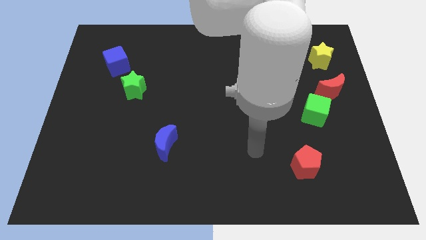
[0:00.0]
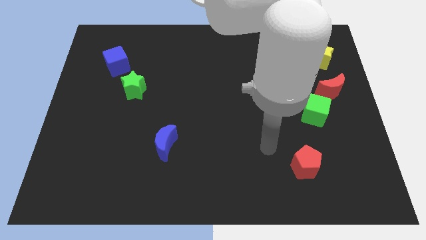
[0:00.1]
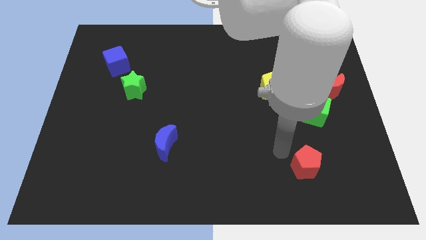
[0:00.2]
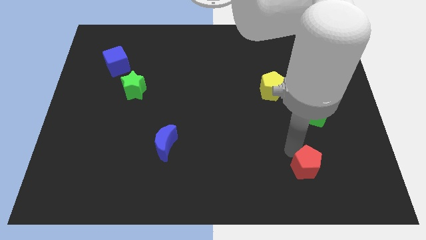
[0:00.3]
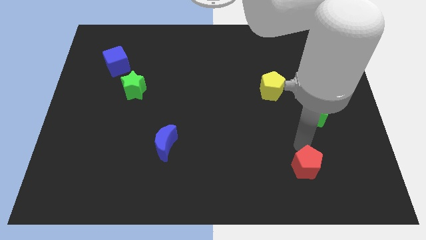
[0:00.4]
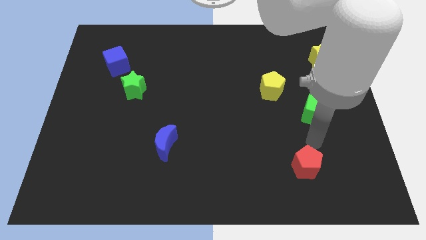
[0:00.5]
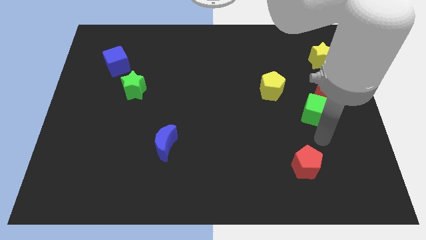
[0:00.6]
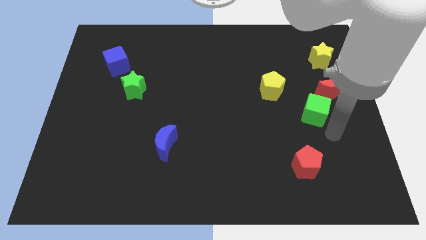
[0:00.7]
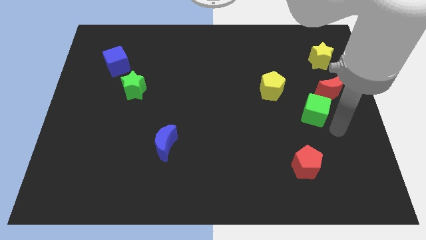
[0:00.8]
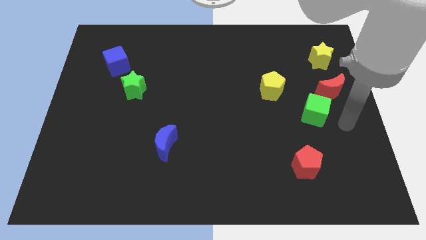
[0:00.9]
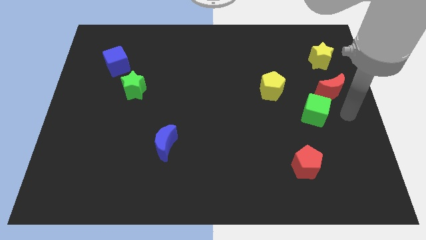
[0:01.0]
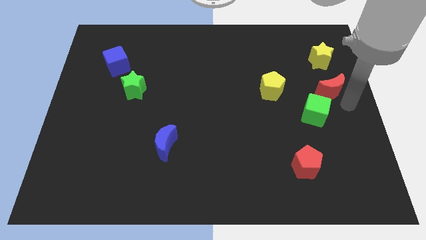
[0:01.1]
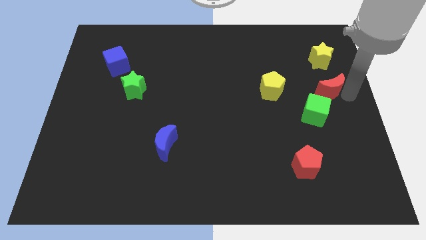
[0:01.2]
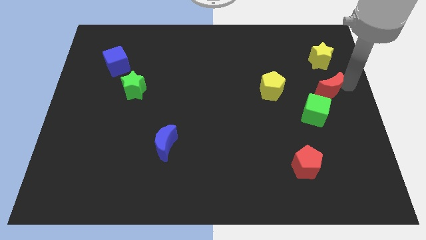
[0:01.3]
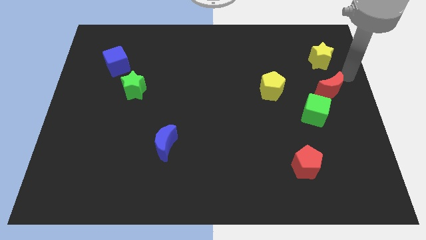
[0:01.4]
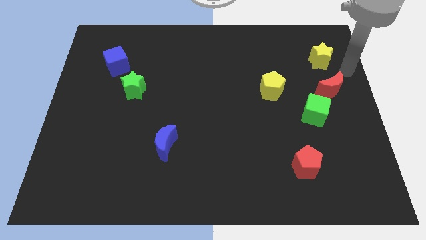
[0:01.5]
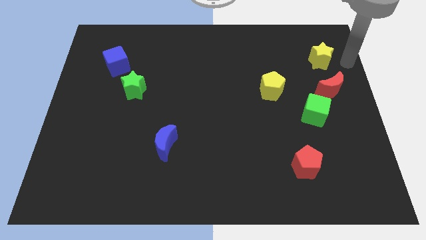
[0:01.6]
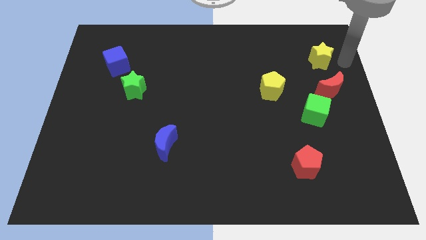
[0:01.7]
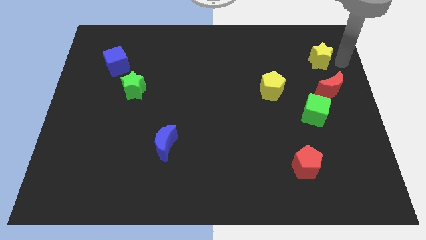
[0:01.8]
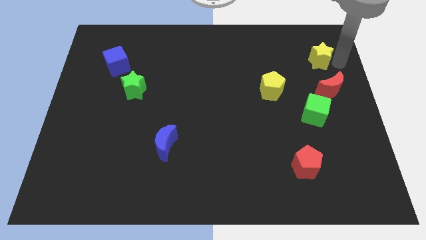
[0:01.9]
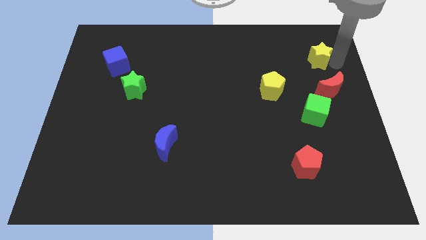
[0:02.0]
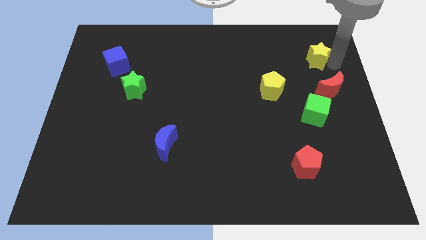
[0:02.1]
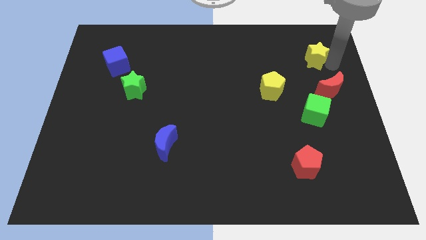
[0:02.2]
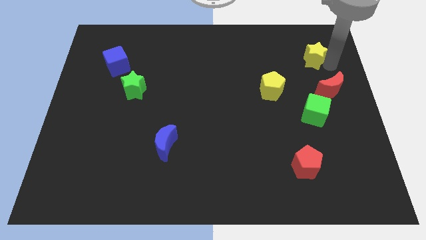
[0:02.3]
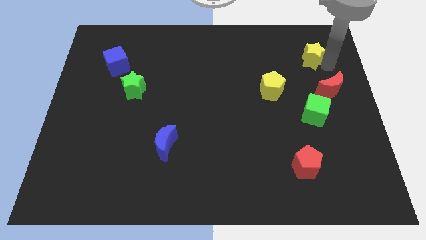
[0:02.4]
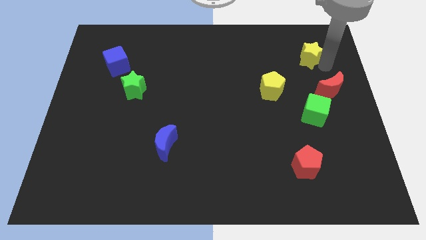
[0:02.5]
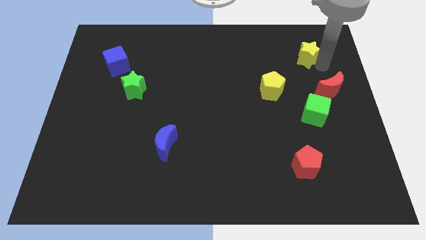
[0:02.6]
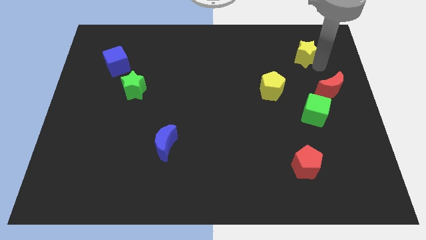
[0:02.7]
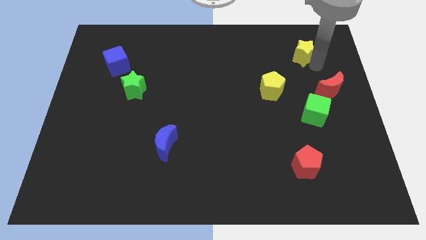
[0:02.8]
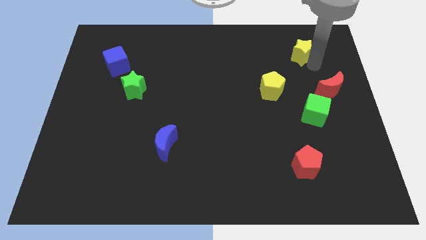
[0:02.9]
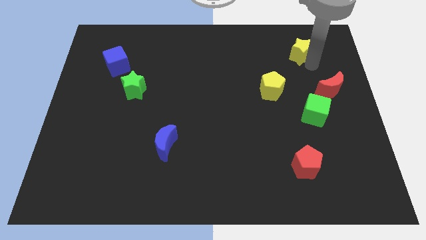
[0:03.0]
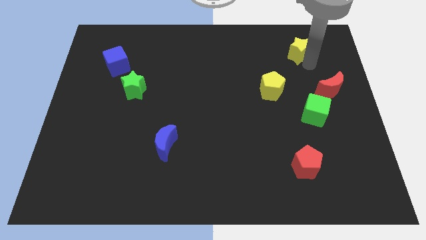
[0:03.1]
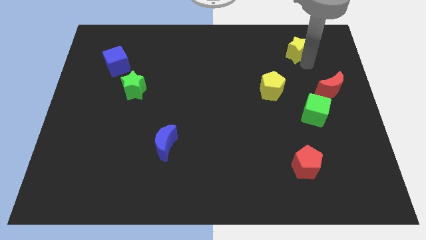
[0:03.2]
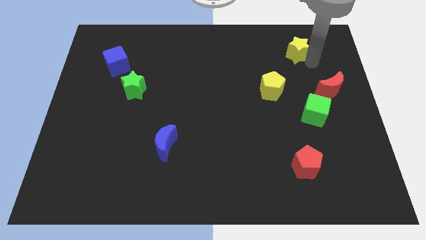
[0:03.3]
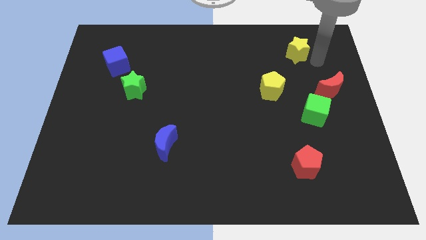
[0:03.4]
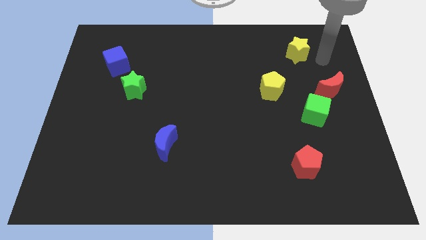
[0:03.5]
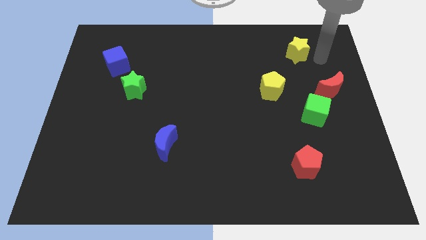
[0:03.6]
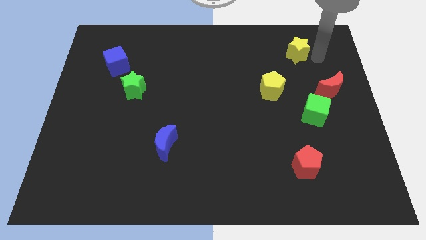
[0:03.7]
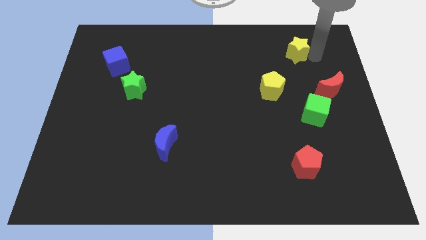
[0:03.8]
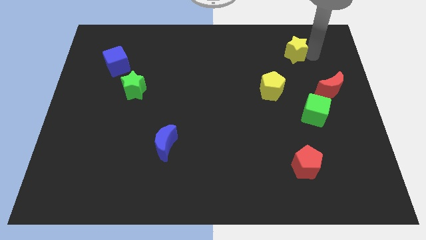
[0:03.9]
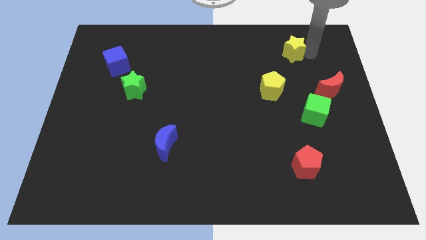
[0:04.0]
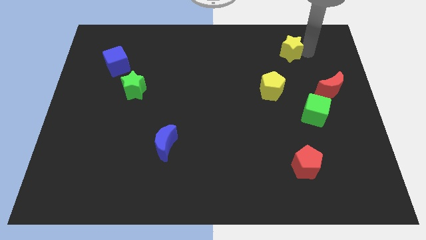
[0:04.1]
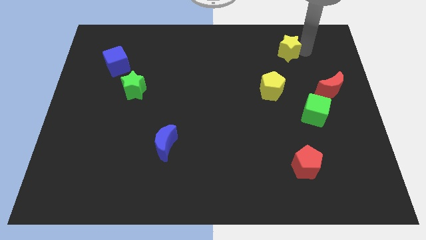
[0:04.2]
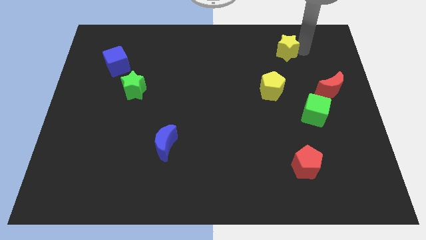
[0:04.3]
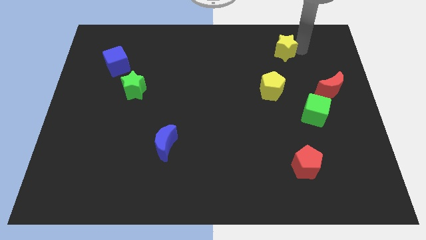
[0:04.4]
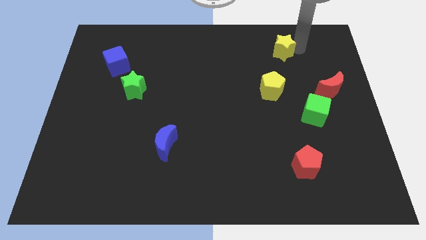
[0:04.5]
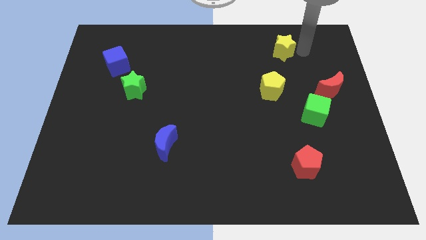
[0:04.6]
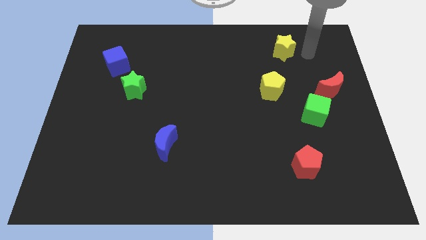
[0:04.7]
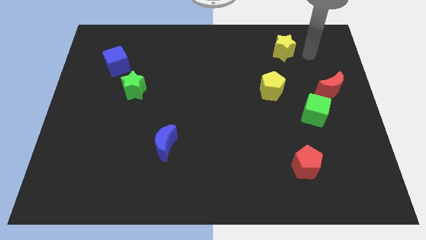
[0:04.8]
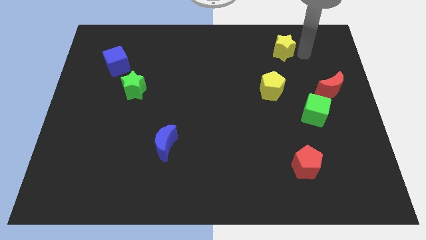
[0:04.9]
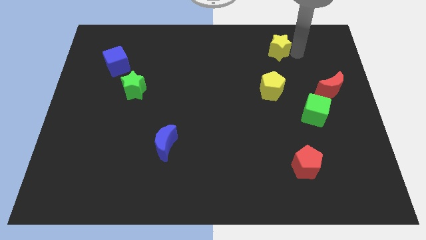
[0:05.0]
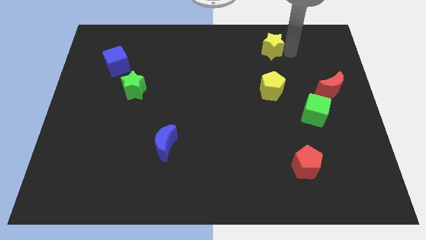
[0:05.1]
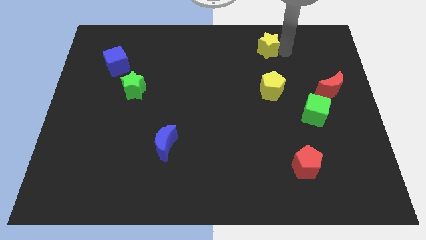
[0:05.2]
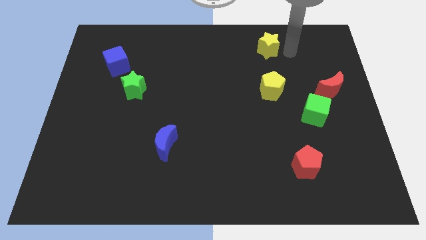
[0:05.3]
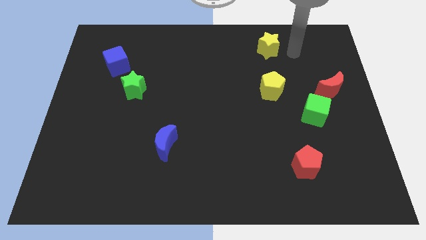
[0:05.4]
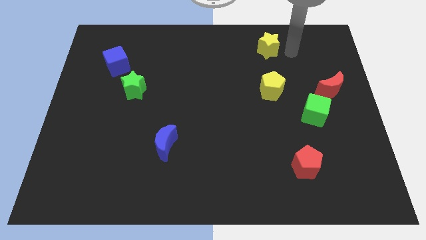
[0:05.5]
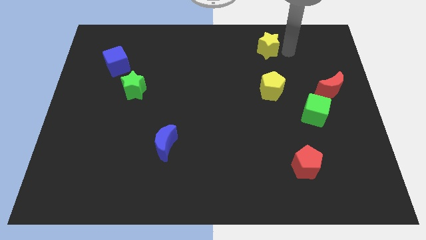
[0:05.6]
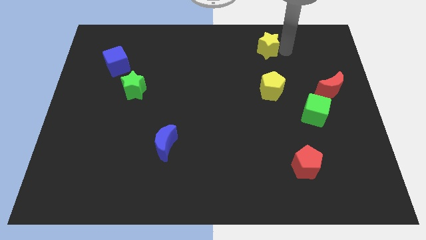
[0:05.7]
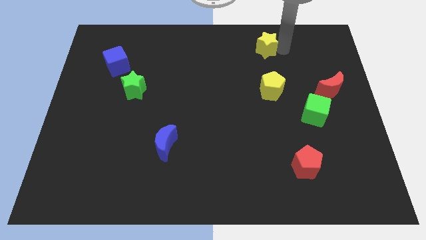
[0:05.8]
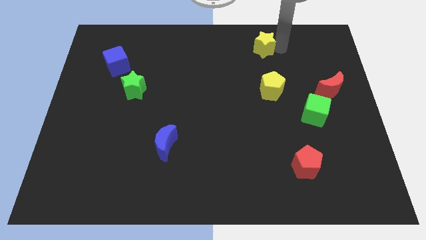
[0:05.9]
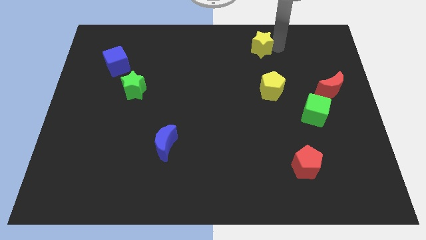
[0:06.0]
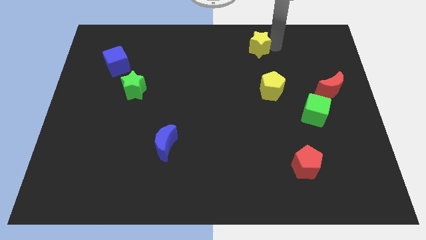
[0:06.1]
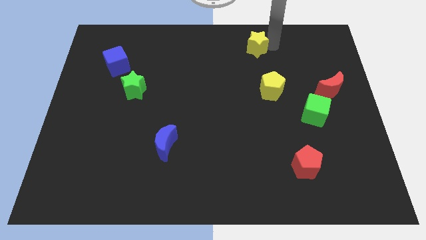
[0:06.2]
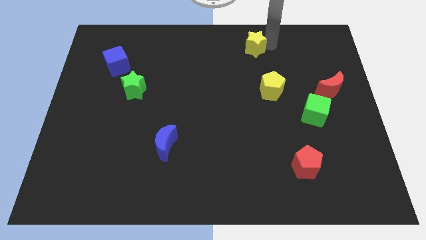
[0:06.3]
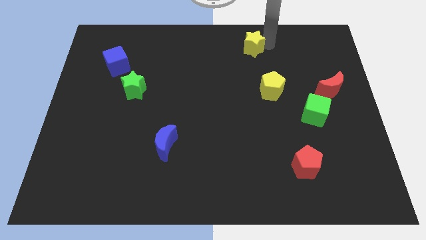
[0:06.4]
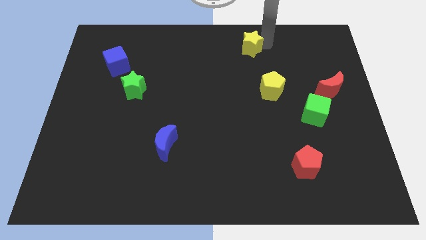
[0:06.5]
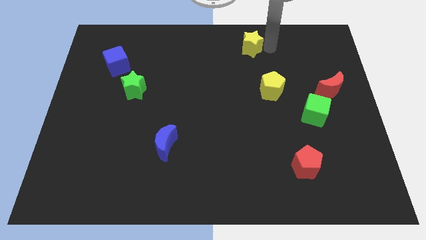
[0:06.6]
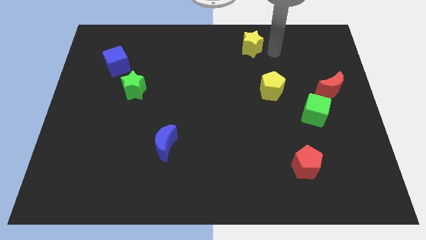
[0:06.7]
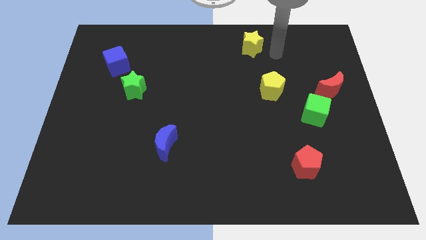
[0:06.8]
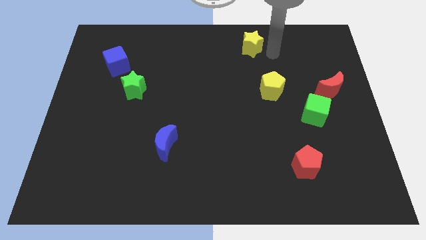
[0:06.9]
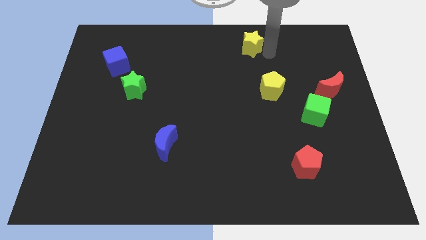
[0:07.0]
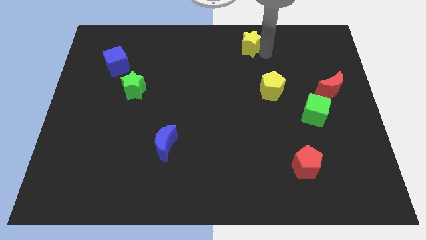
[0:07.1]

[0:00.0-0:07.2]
put the yellow star to the top side
